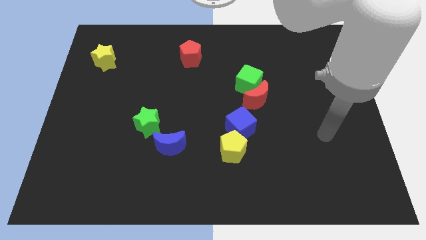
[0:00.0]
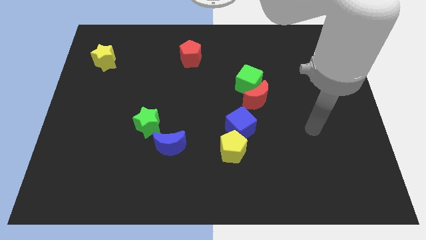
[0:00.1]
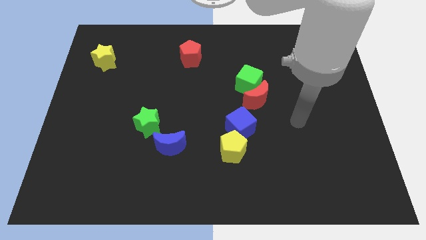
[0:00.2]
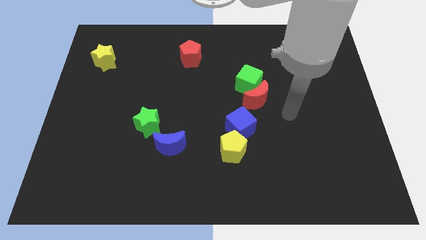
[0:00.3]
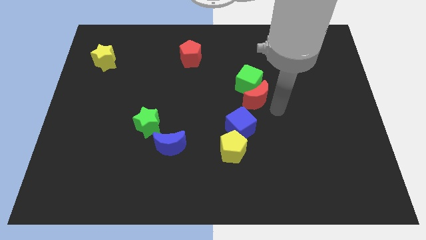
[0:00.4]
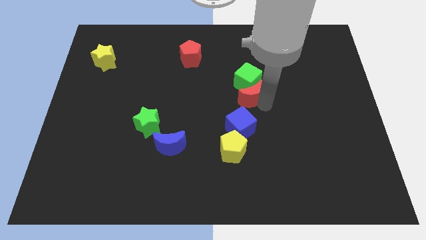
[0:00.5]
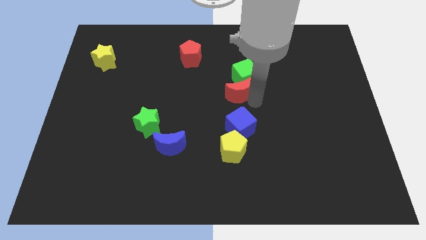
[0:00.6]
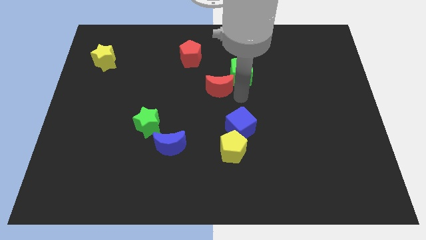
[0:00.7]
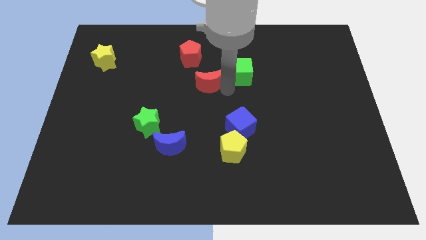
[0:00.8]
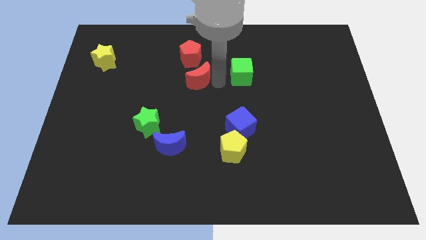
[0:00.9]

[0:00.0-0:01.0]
move the green cube away from the red moon

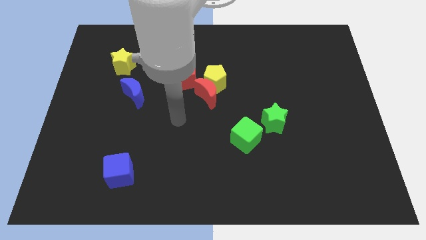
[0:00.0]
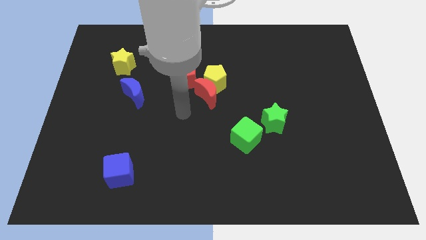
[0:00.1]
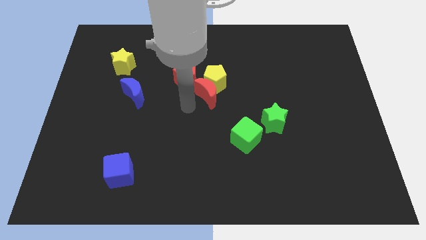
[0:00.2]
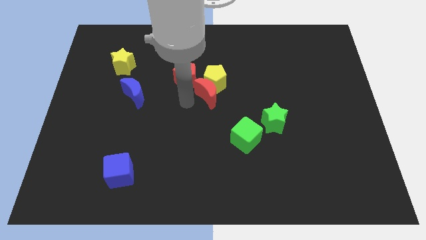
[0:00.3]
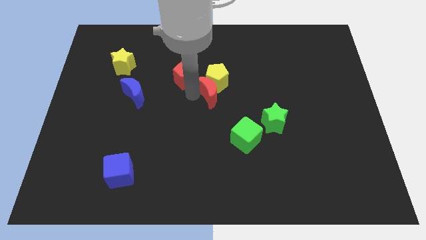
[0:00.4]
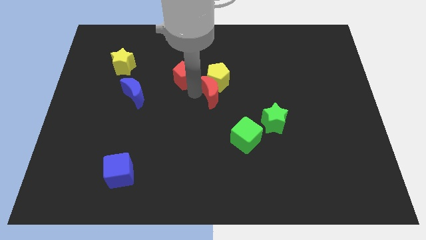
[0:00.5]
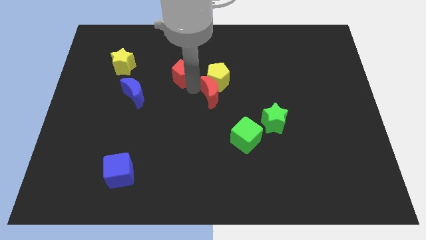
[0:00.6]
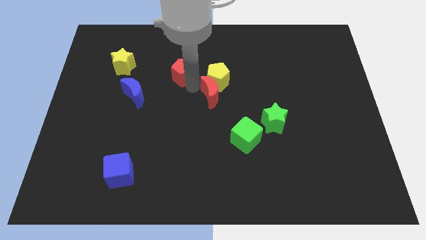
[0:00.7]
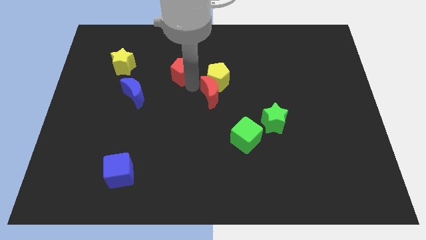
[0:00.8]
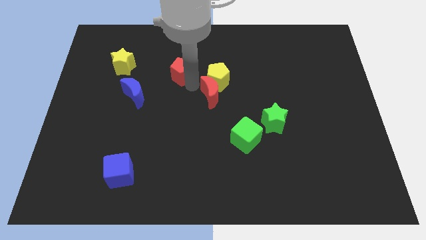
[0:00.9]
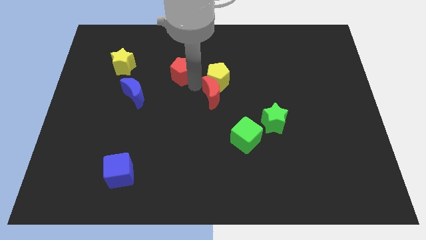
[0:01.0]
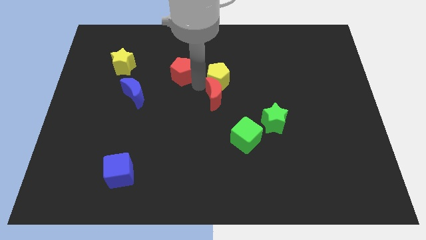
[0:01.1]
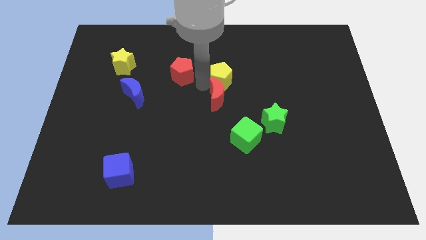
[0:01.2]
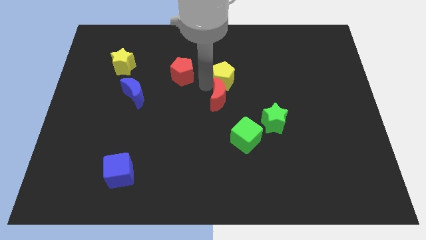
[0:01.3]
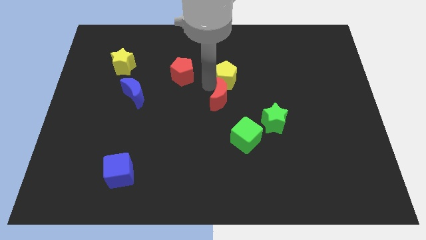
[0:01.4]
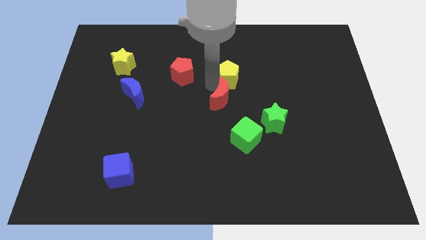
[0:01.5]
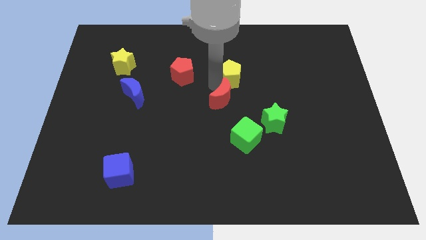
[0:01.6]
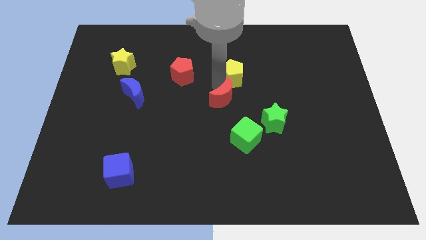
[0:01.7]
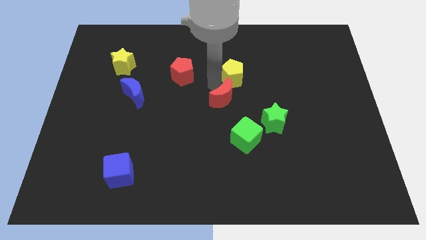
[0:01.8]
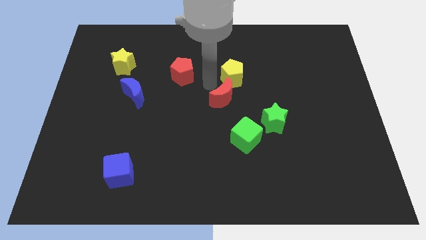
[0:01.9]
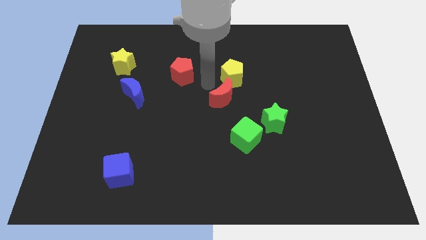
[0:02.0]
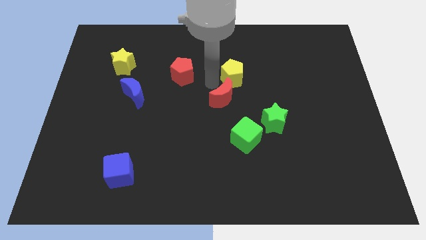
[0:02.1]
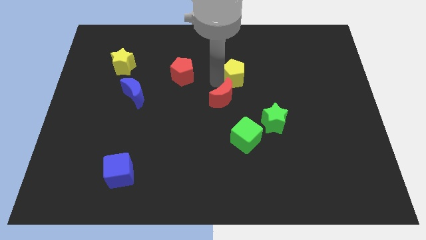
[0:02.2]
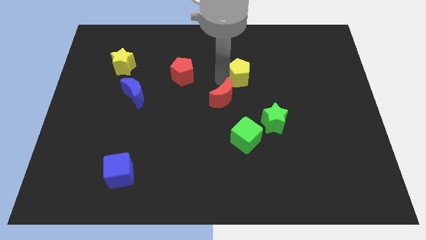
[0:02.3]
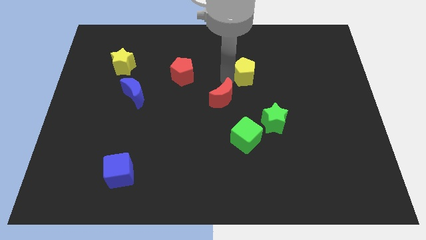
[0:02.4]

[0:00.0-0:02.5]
pull the yellow pentagon apart from the red moon and red pentagon

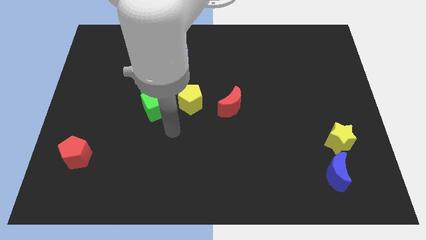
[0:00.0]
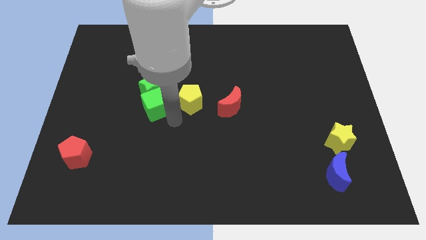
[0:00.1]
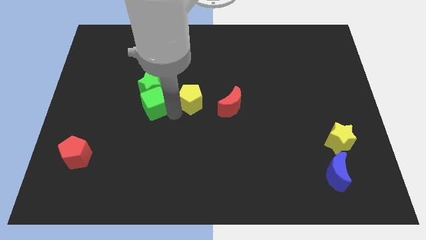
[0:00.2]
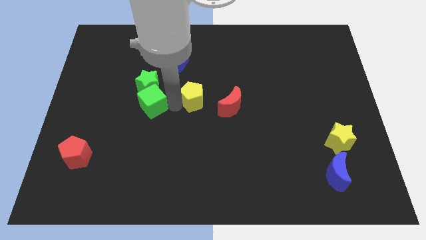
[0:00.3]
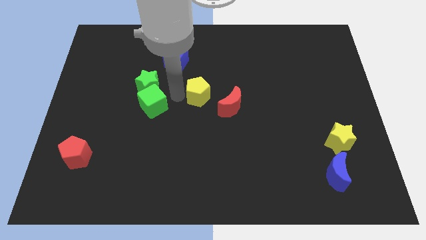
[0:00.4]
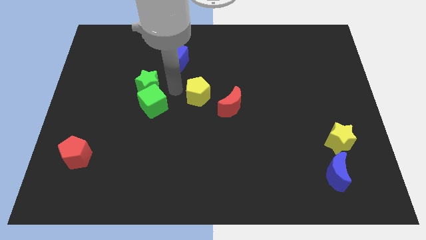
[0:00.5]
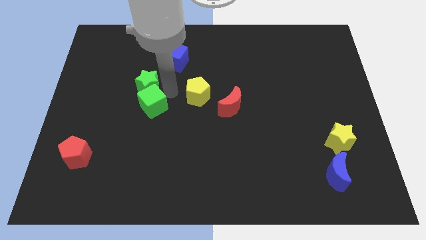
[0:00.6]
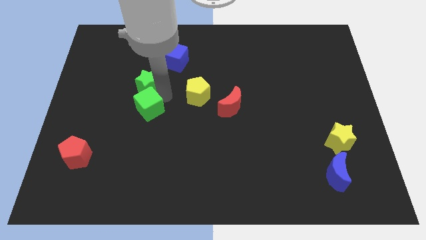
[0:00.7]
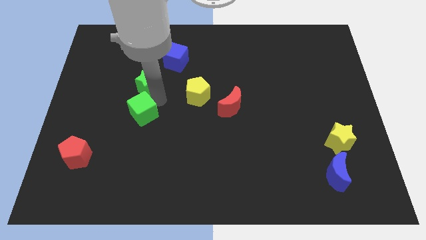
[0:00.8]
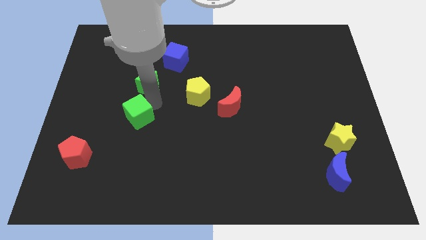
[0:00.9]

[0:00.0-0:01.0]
pull the green cube apart from the green star and yellow pentagon

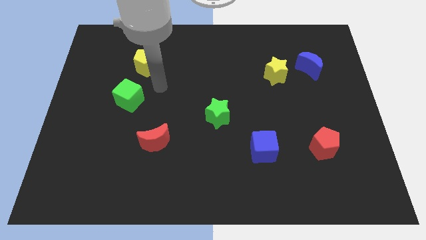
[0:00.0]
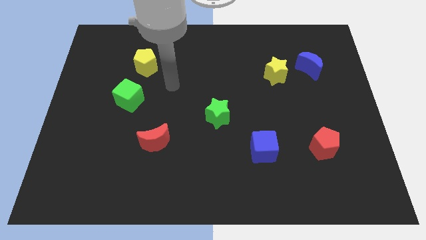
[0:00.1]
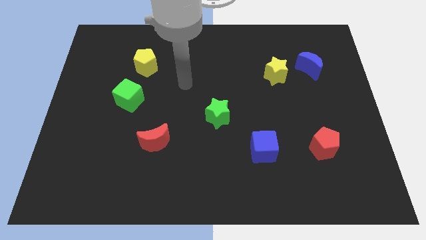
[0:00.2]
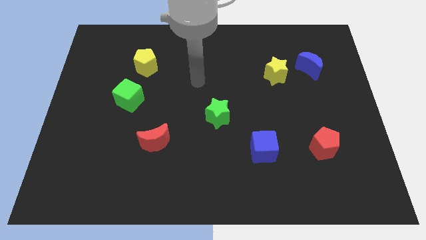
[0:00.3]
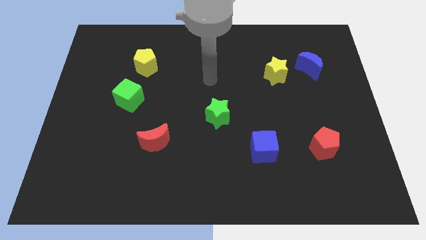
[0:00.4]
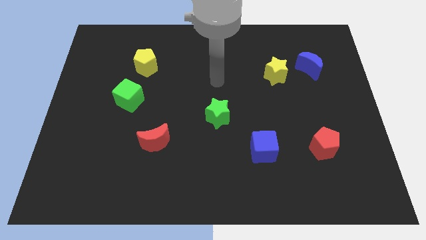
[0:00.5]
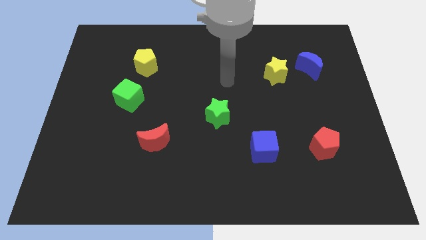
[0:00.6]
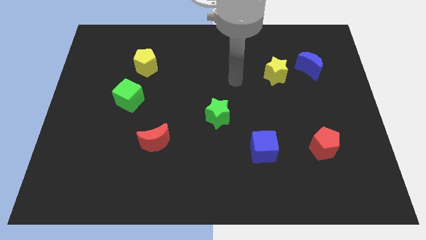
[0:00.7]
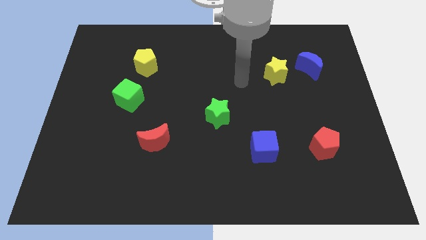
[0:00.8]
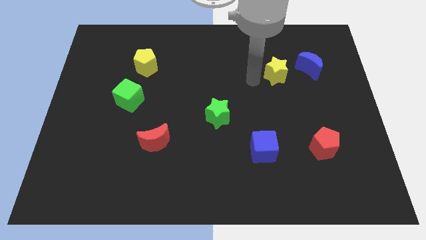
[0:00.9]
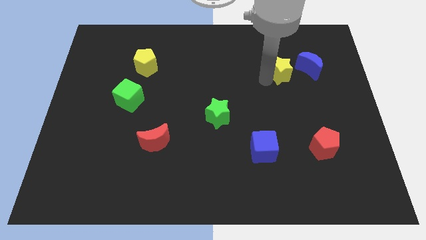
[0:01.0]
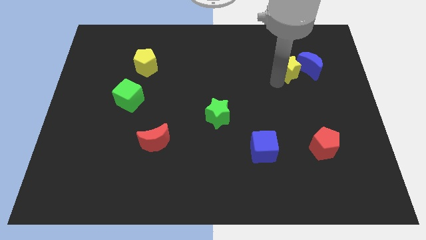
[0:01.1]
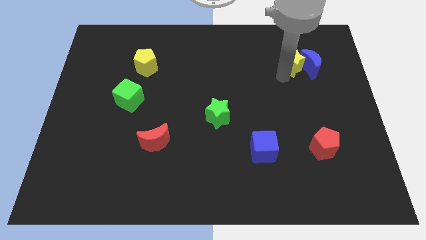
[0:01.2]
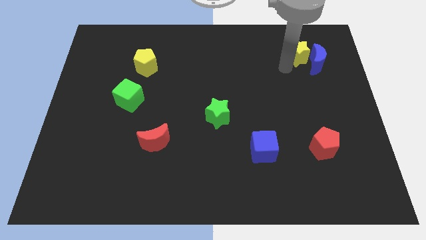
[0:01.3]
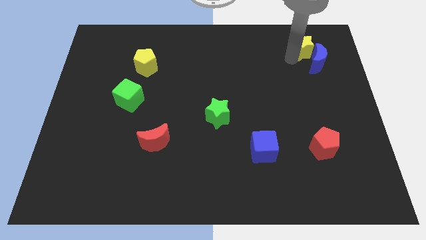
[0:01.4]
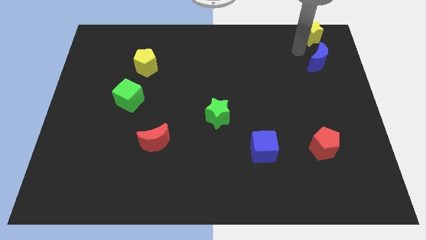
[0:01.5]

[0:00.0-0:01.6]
move the blue moon away from the yellow star

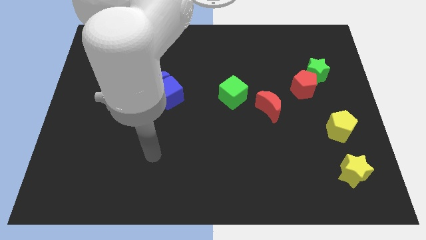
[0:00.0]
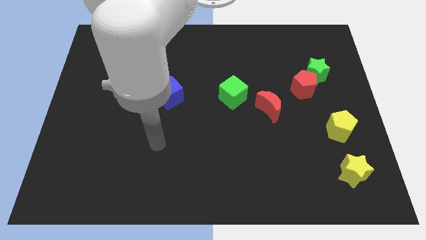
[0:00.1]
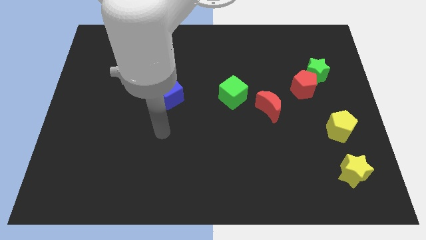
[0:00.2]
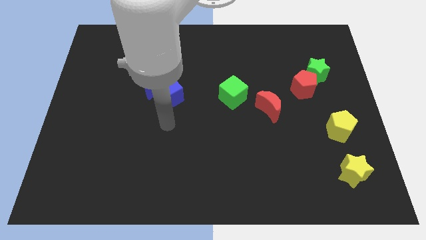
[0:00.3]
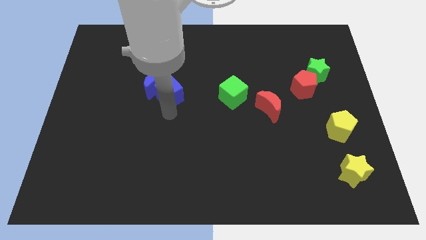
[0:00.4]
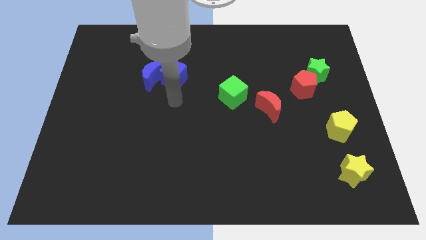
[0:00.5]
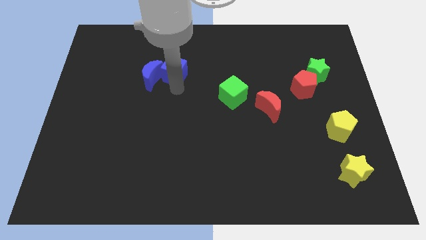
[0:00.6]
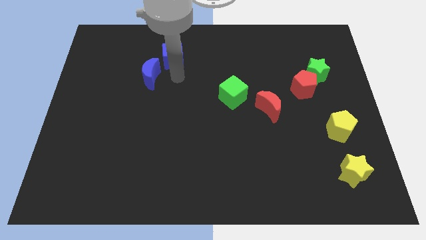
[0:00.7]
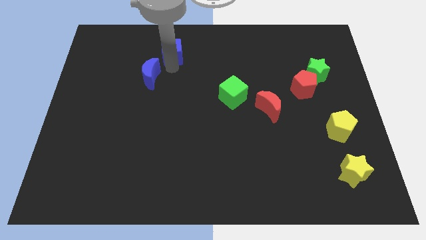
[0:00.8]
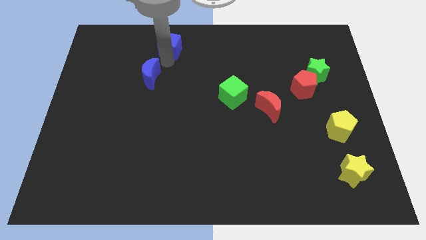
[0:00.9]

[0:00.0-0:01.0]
pull the blue moon apart from the blue cube

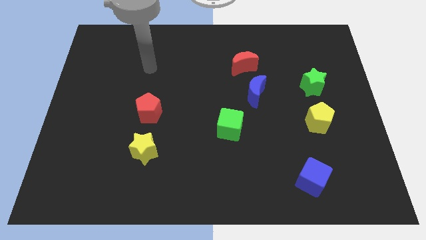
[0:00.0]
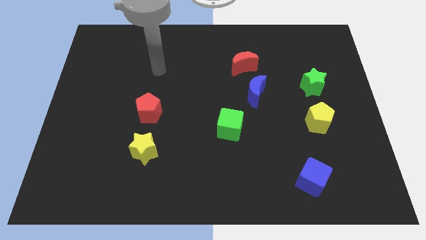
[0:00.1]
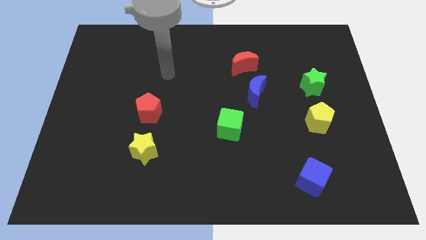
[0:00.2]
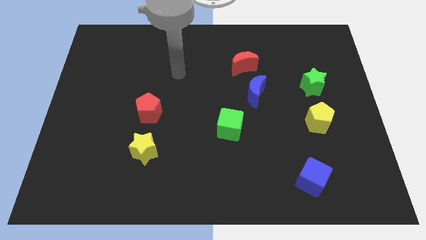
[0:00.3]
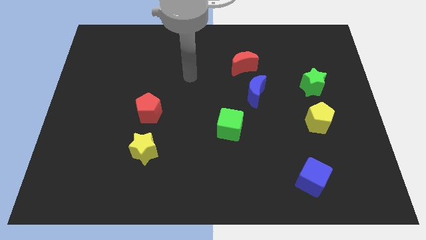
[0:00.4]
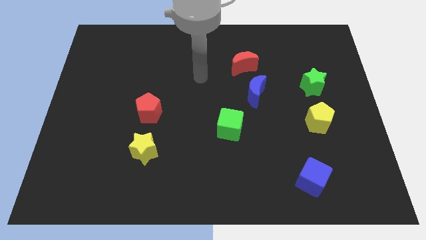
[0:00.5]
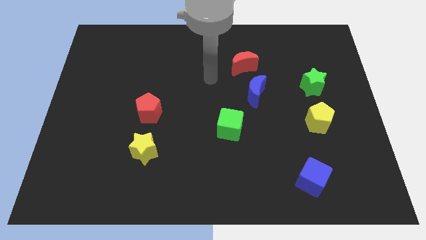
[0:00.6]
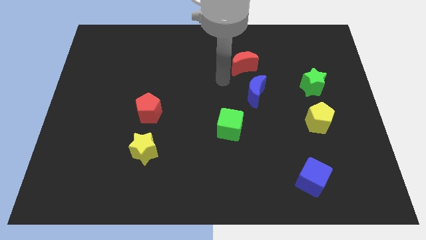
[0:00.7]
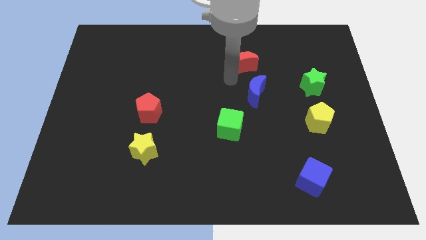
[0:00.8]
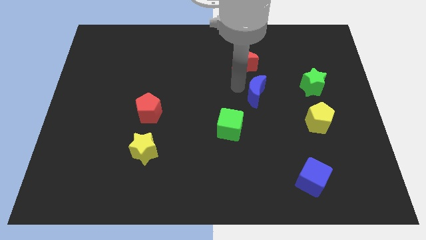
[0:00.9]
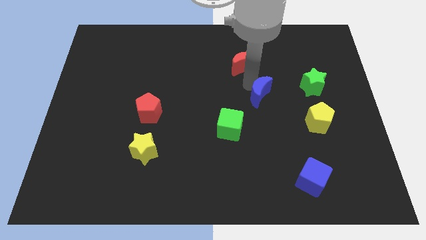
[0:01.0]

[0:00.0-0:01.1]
move the red moon away from the blue moon

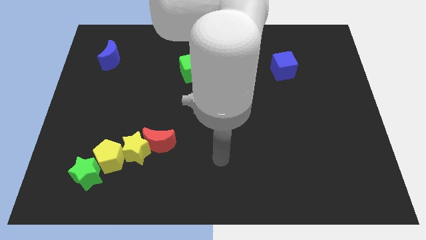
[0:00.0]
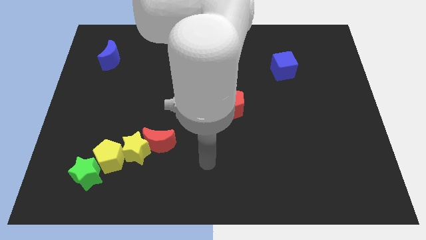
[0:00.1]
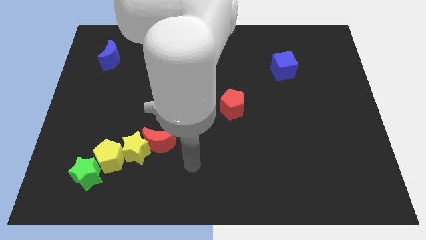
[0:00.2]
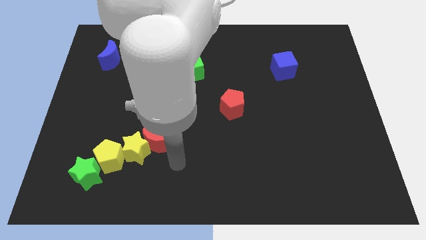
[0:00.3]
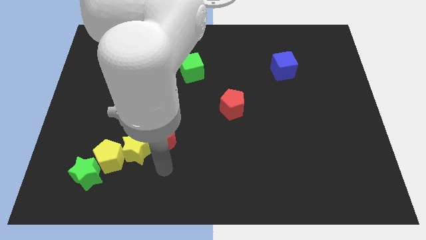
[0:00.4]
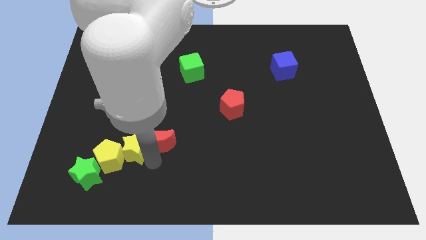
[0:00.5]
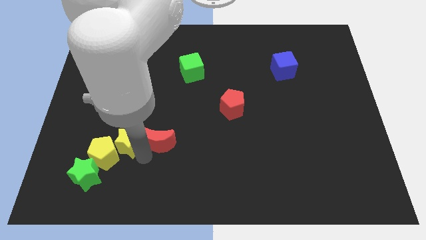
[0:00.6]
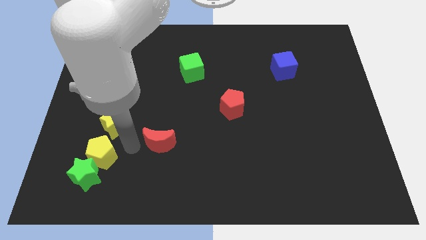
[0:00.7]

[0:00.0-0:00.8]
separate the red moon from the yellow star

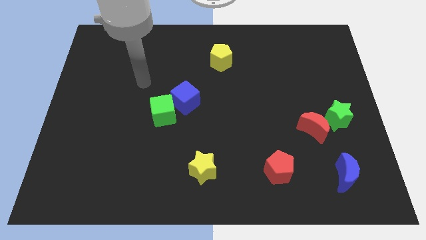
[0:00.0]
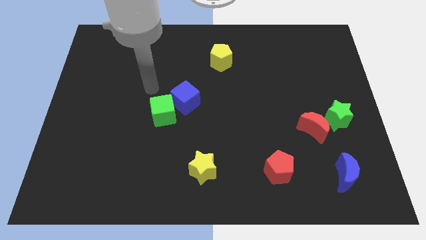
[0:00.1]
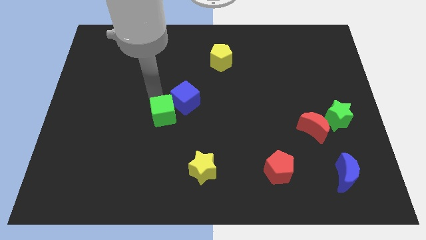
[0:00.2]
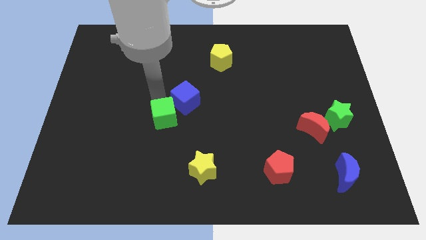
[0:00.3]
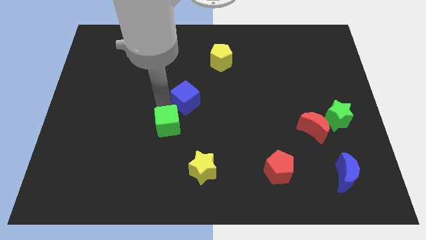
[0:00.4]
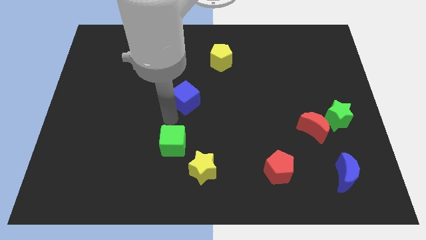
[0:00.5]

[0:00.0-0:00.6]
separate the blue cube from the green cube
